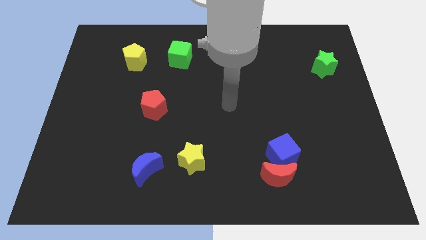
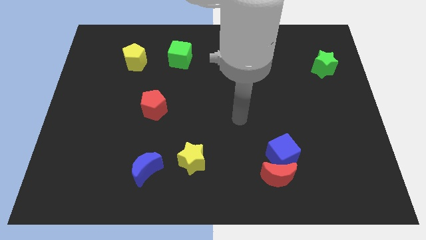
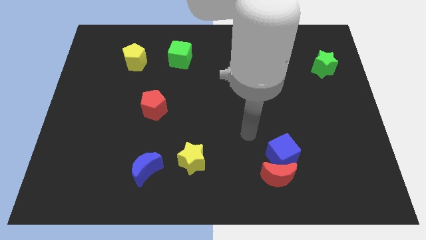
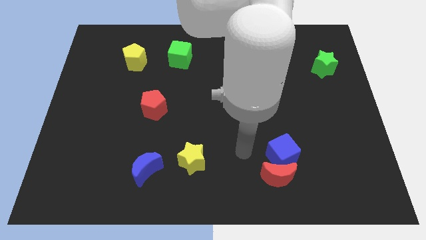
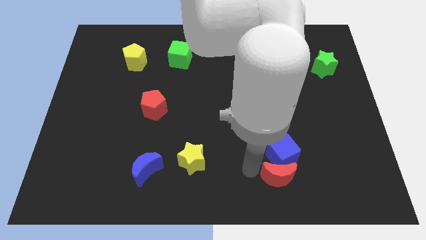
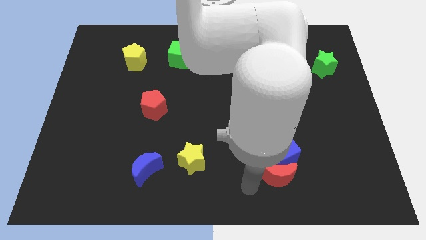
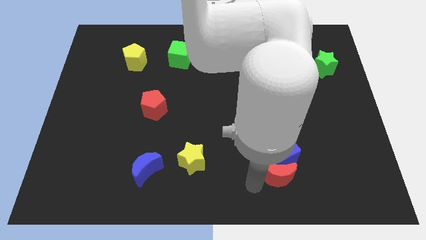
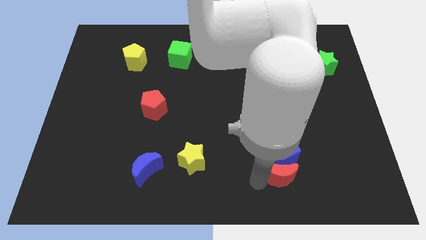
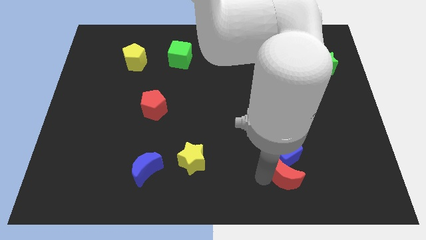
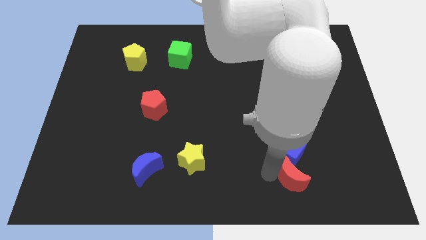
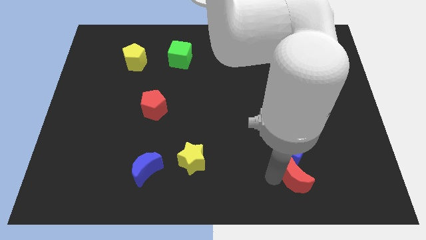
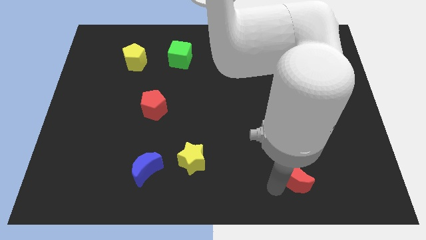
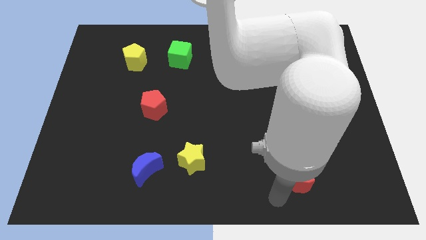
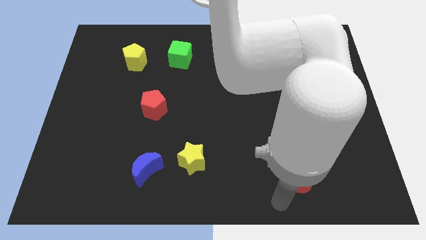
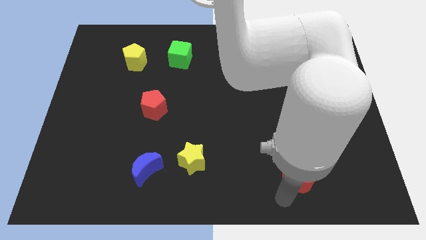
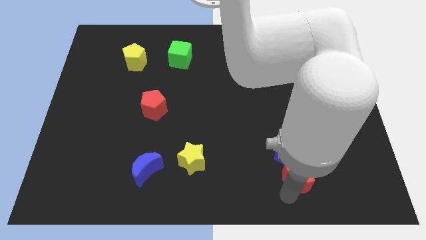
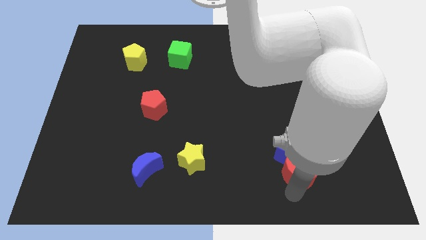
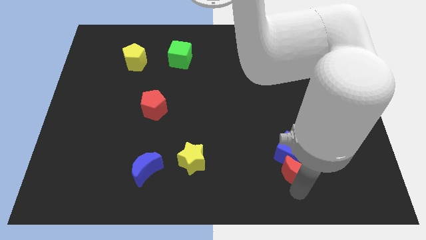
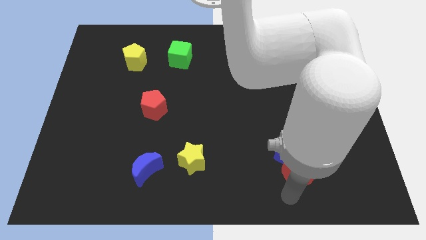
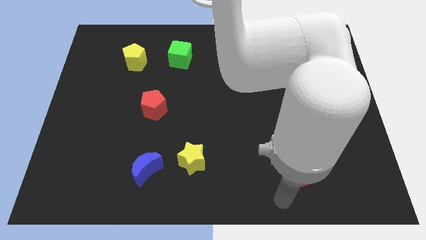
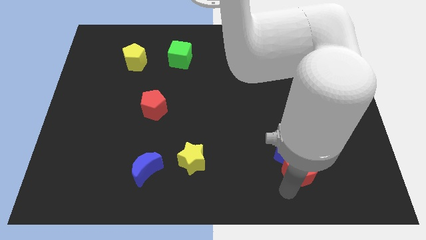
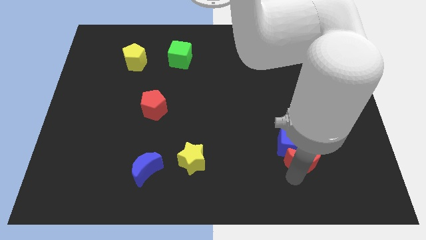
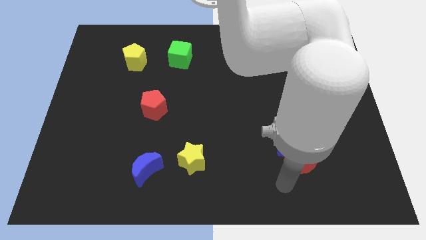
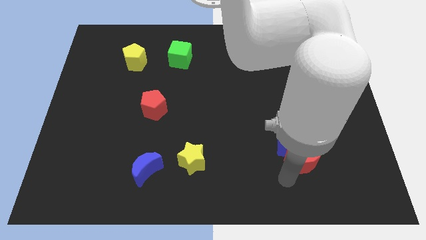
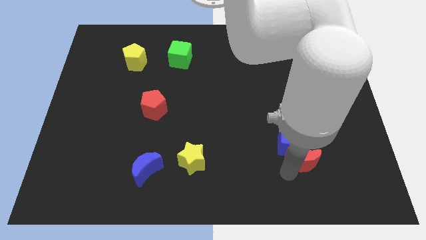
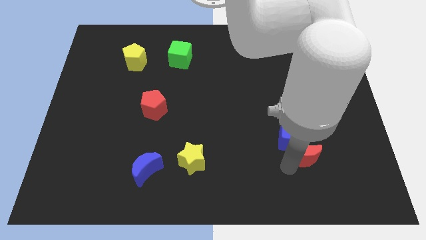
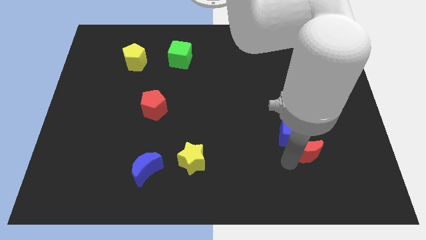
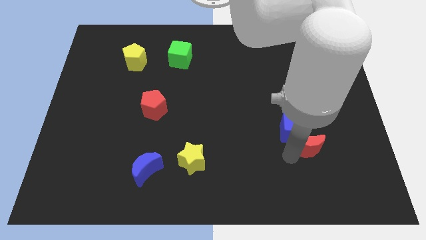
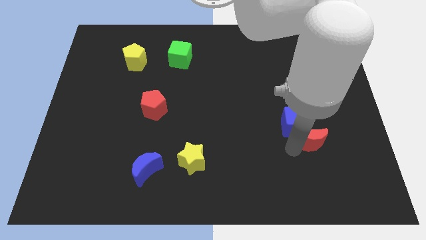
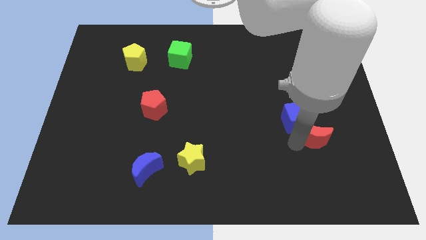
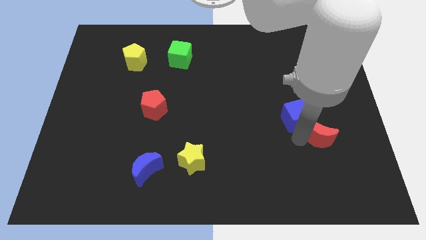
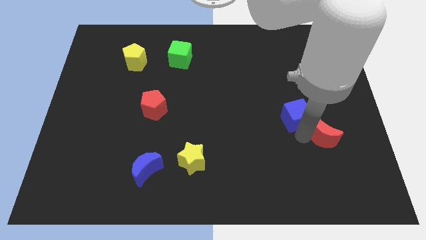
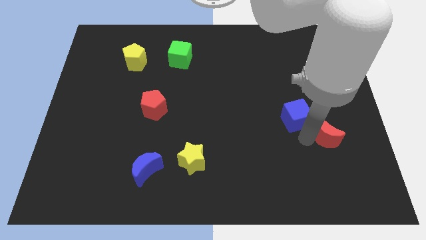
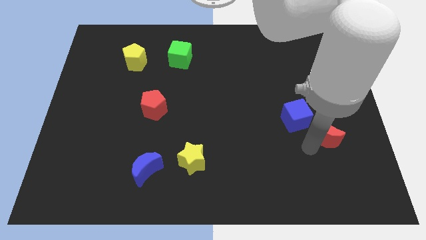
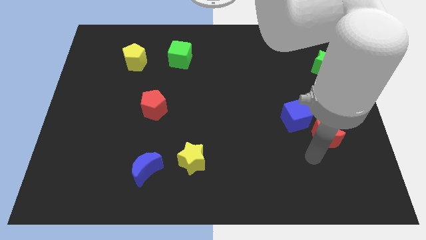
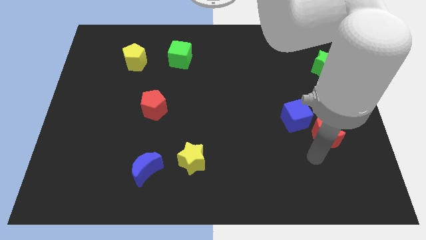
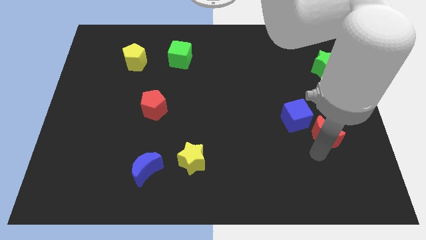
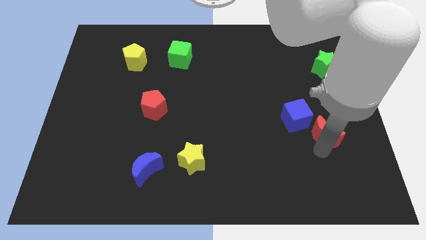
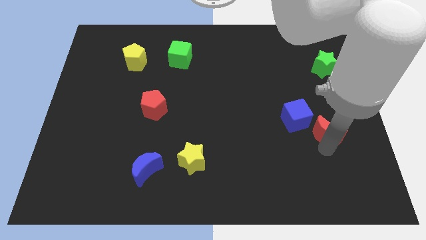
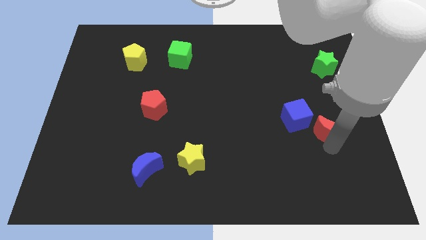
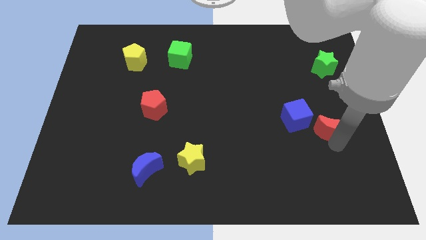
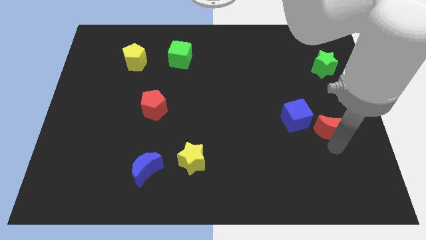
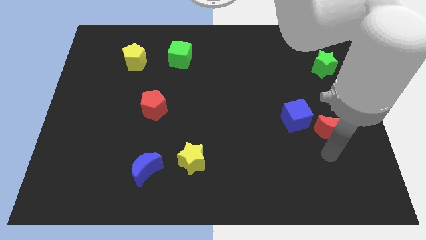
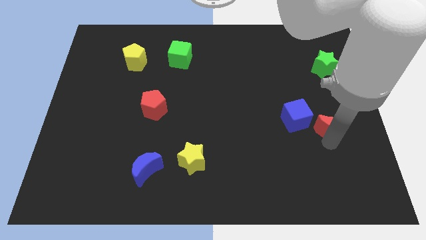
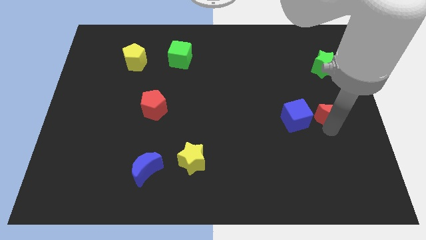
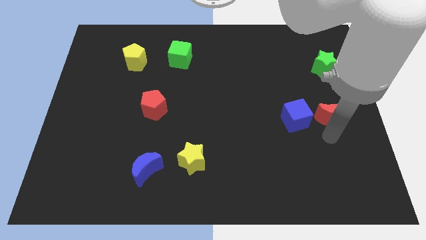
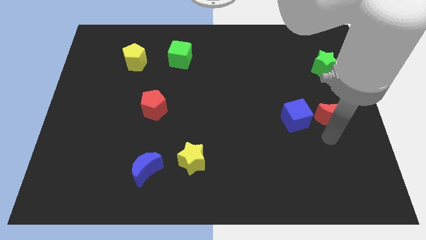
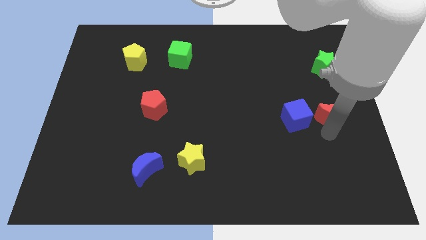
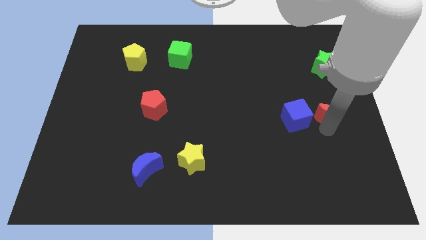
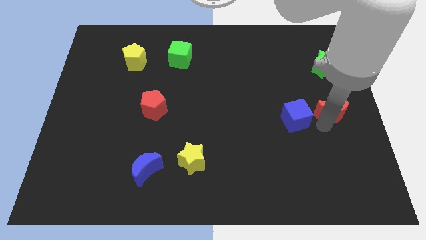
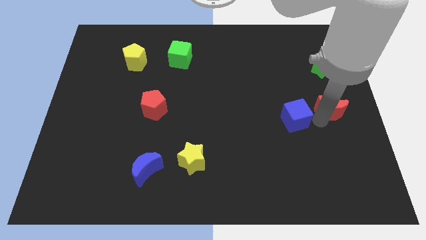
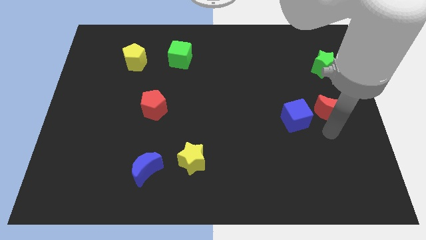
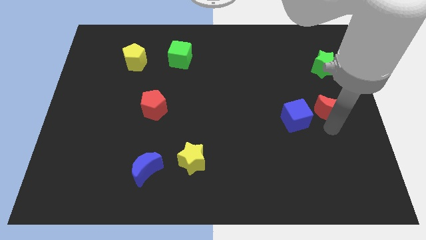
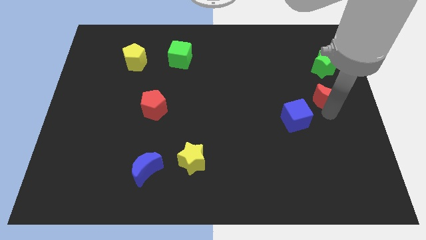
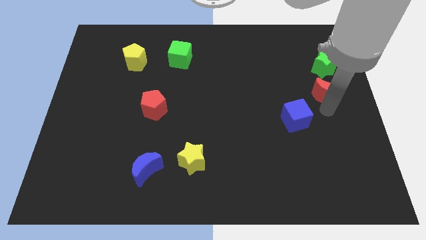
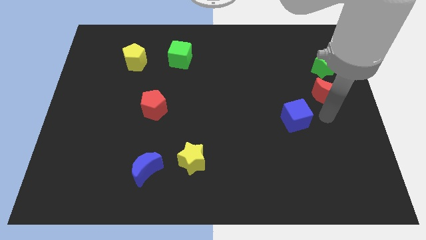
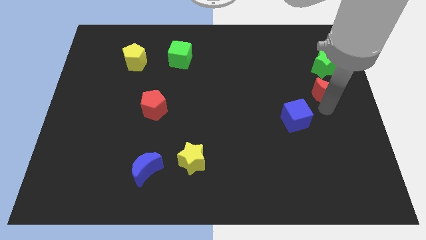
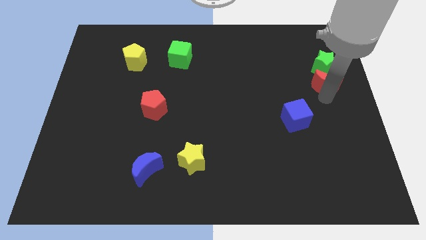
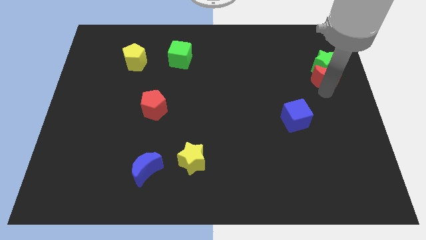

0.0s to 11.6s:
put the red moon towards the green star

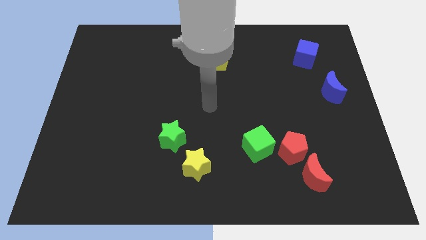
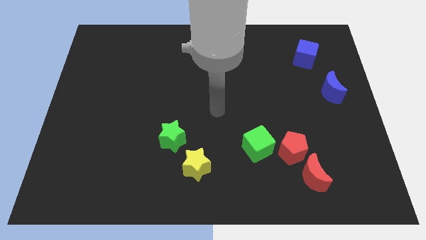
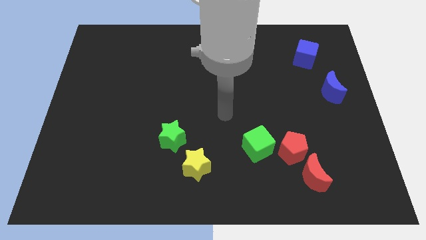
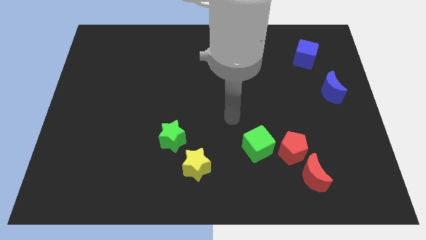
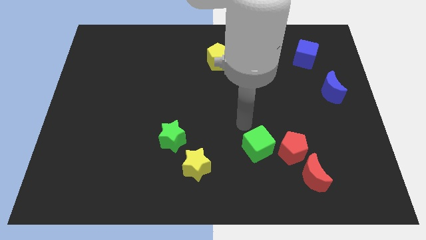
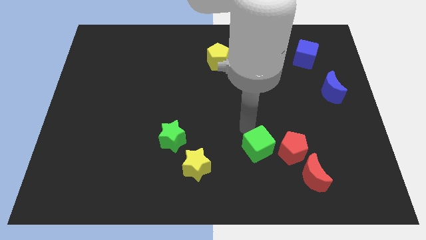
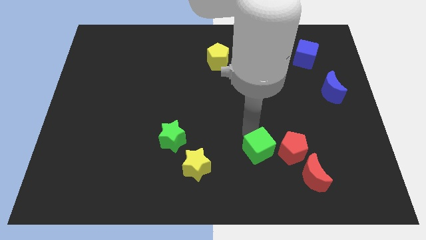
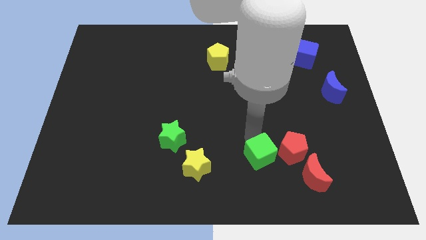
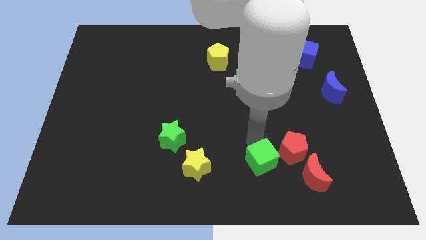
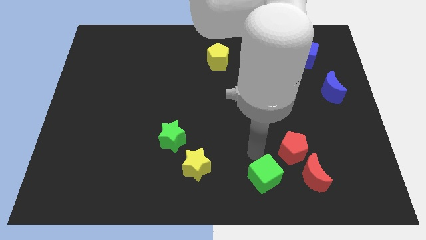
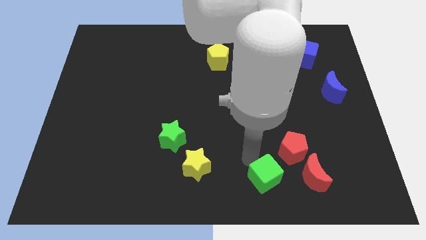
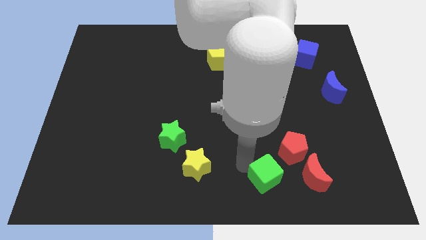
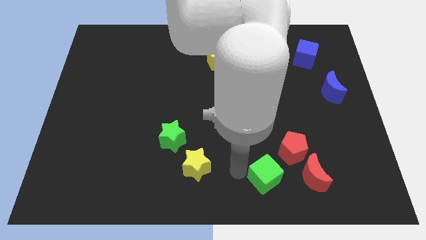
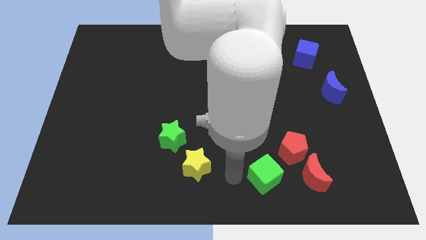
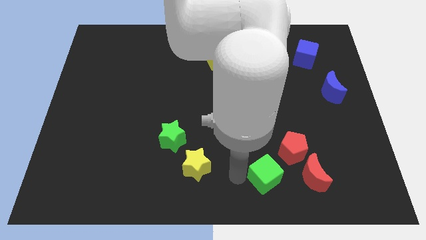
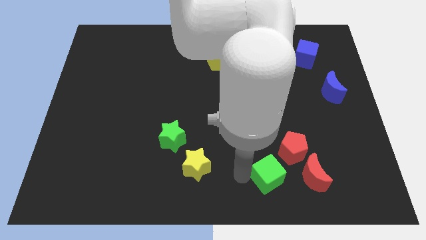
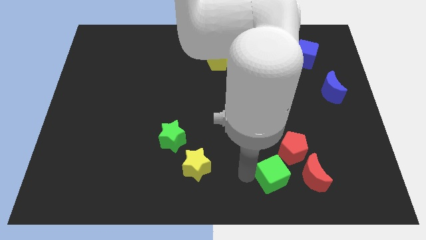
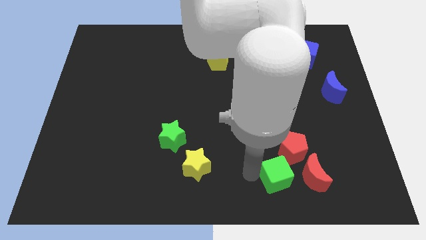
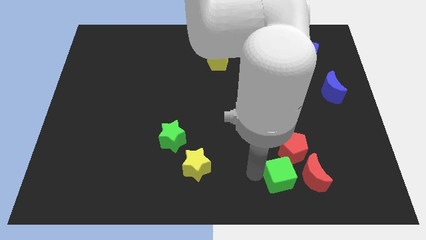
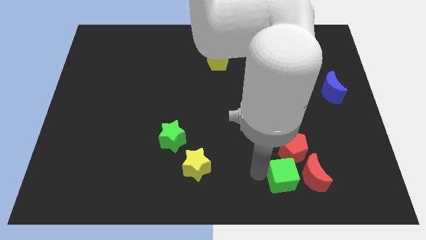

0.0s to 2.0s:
put the green cube towards the red moon
